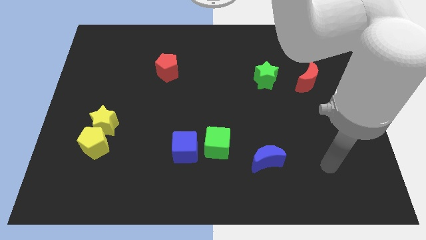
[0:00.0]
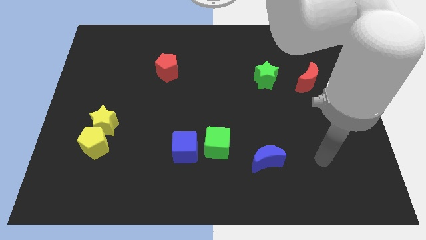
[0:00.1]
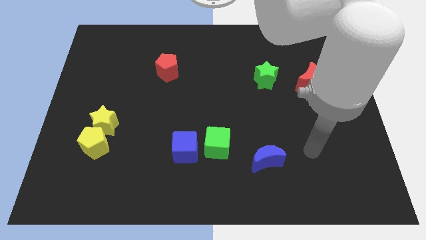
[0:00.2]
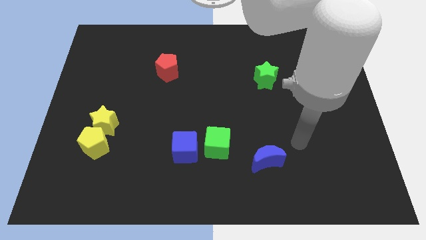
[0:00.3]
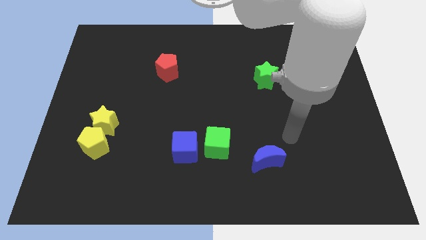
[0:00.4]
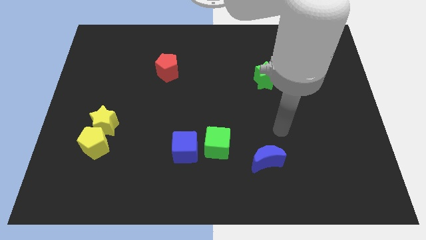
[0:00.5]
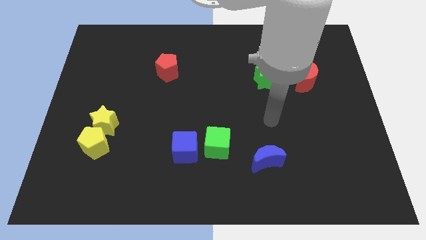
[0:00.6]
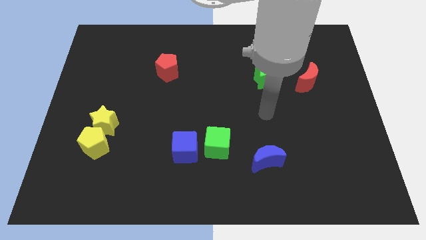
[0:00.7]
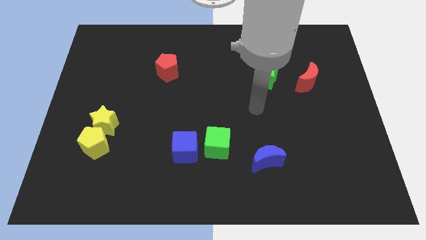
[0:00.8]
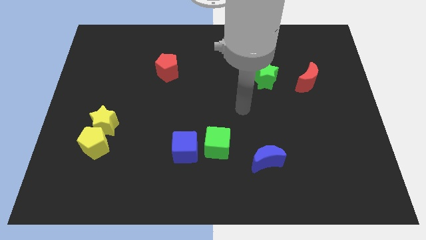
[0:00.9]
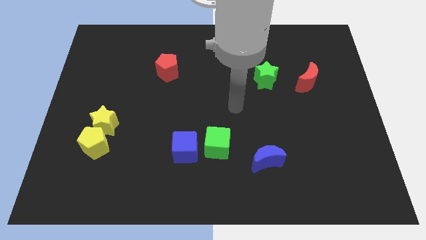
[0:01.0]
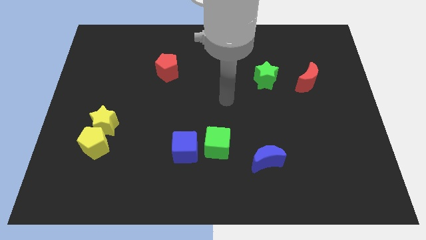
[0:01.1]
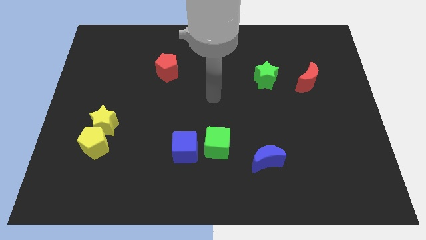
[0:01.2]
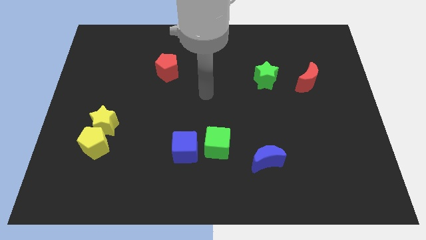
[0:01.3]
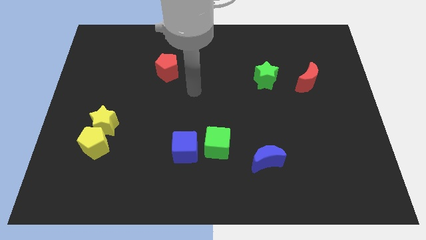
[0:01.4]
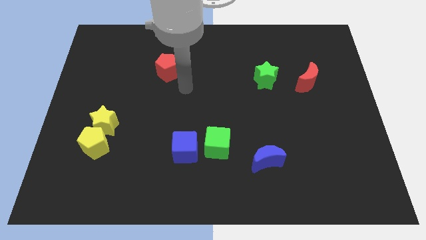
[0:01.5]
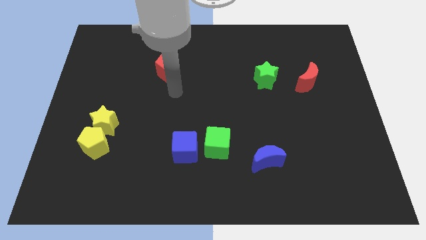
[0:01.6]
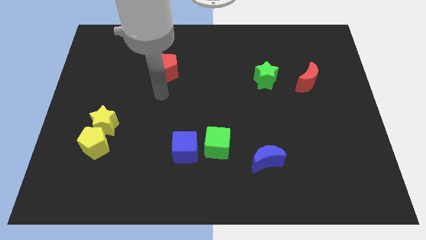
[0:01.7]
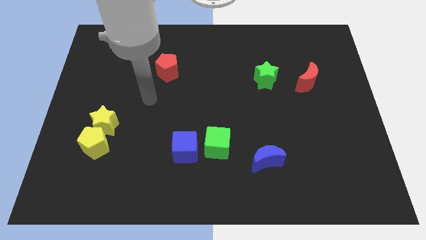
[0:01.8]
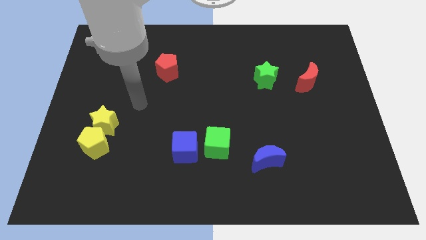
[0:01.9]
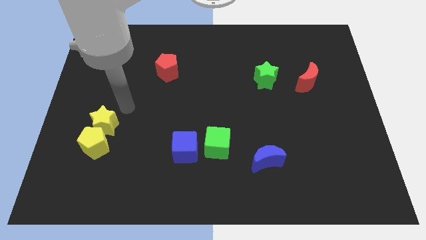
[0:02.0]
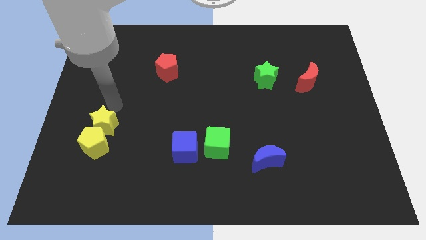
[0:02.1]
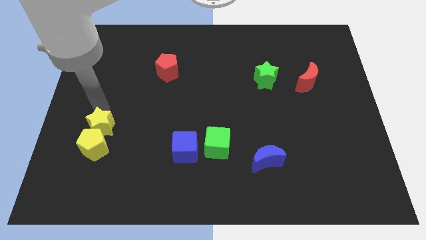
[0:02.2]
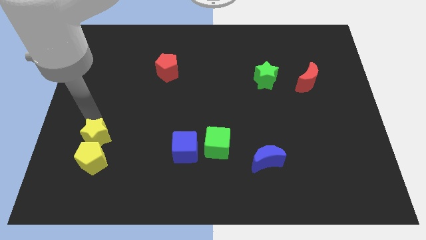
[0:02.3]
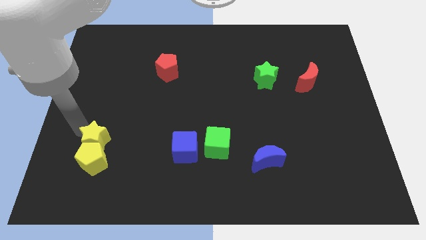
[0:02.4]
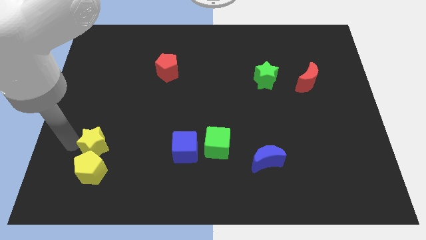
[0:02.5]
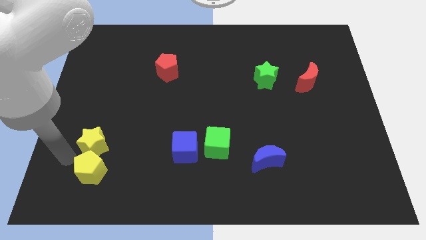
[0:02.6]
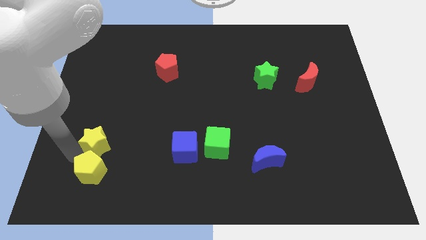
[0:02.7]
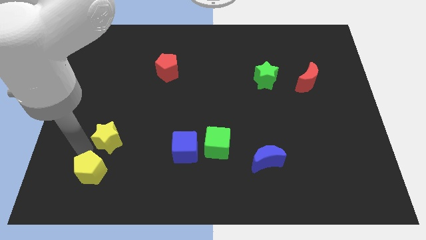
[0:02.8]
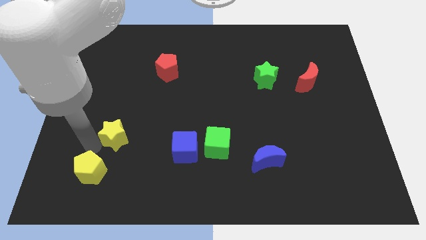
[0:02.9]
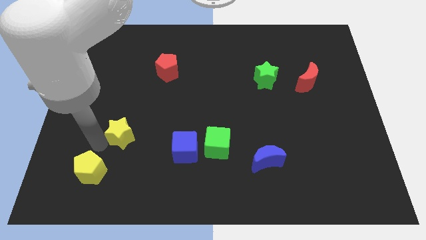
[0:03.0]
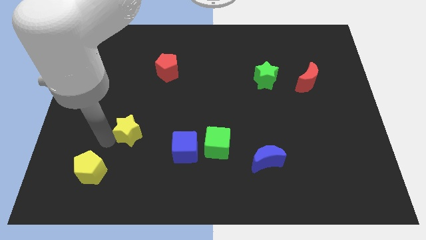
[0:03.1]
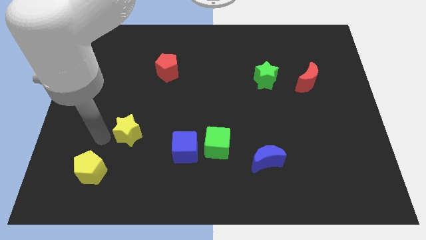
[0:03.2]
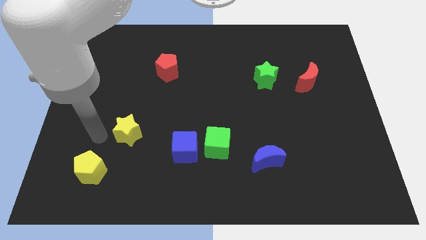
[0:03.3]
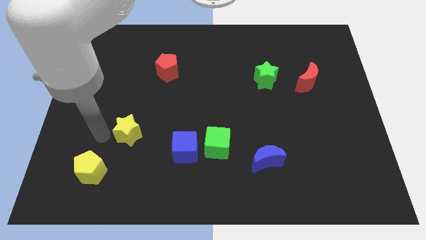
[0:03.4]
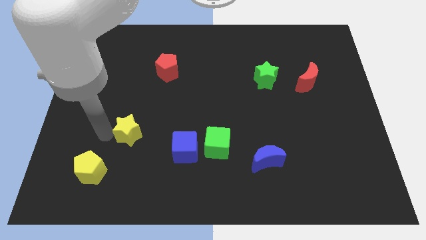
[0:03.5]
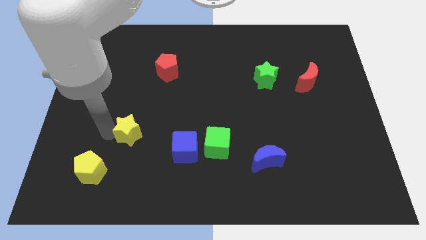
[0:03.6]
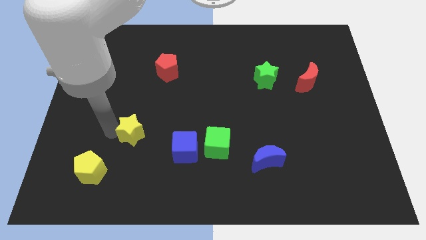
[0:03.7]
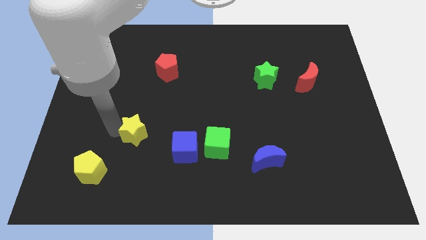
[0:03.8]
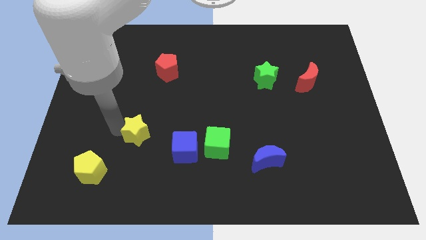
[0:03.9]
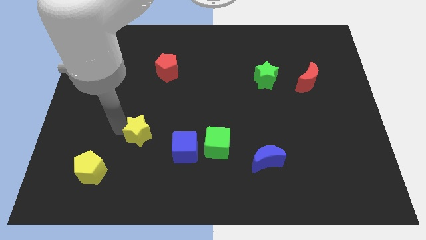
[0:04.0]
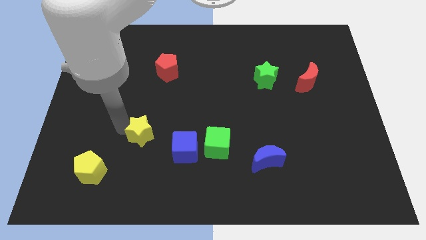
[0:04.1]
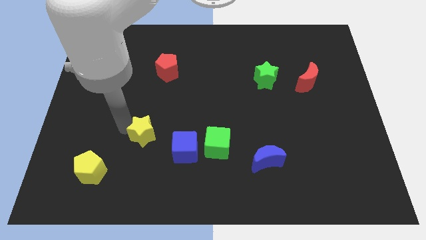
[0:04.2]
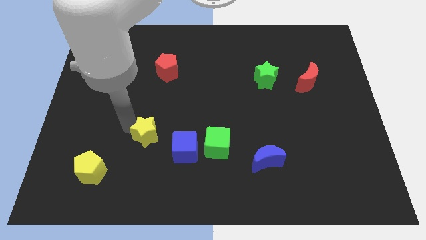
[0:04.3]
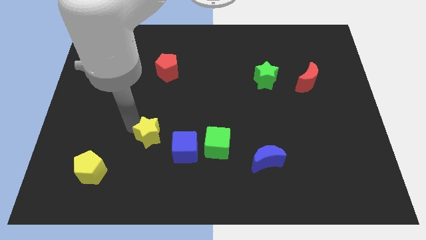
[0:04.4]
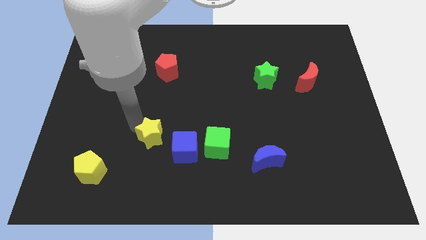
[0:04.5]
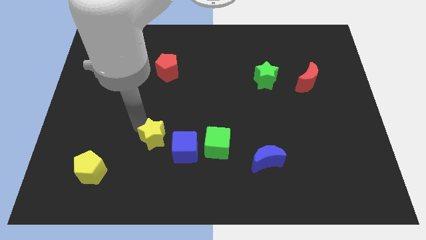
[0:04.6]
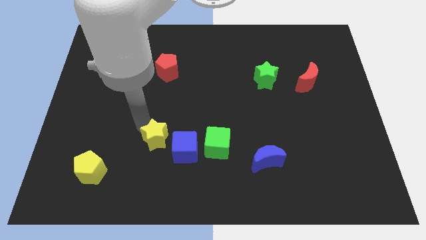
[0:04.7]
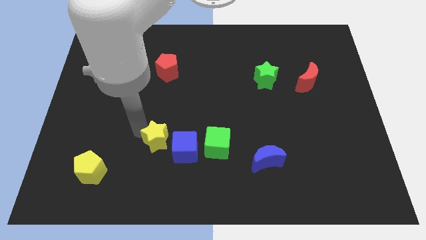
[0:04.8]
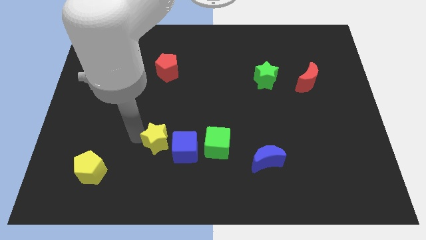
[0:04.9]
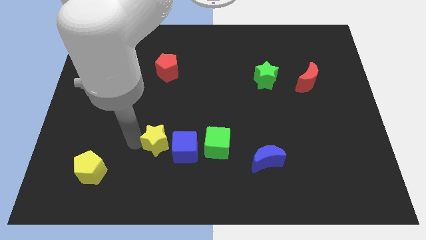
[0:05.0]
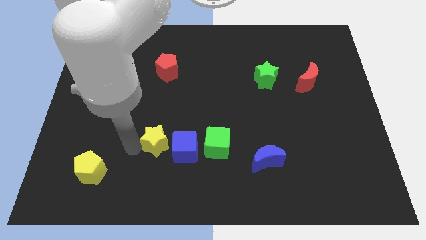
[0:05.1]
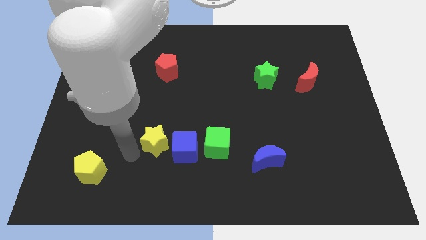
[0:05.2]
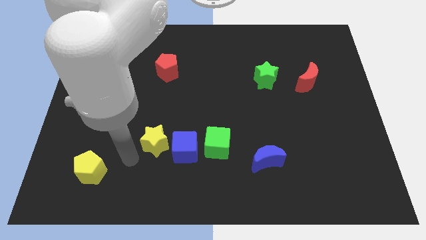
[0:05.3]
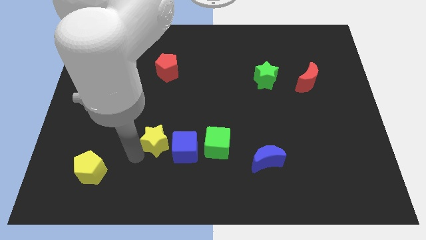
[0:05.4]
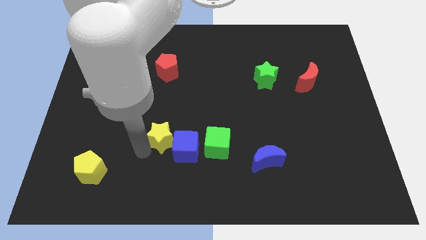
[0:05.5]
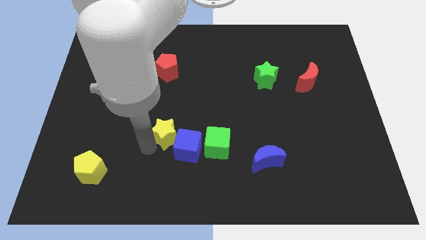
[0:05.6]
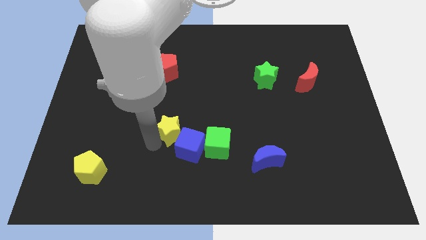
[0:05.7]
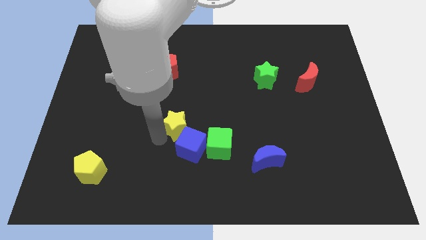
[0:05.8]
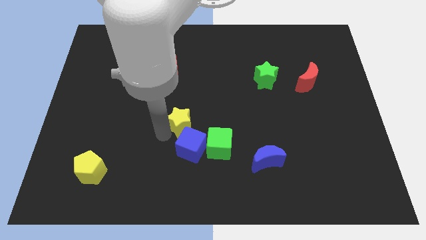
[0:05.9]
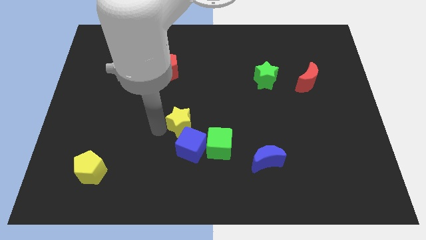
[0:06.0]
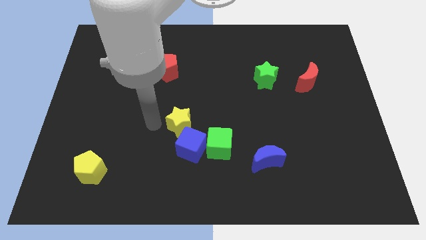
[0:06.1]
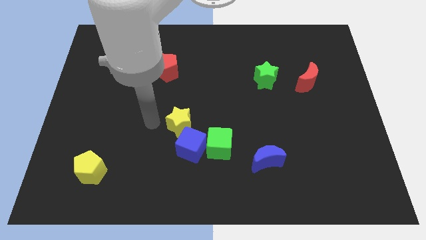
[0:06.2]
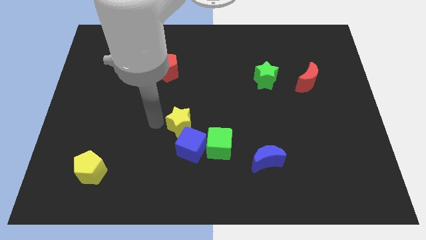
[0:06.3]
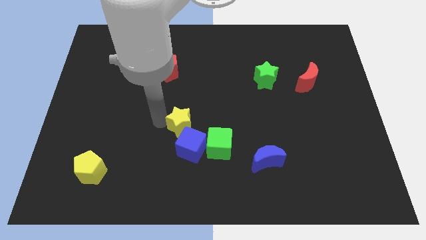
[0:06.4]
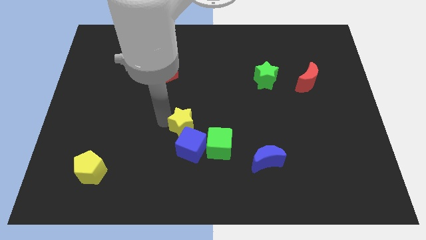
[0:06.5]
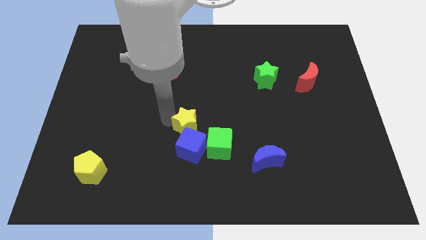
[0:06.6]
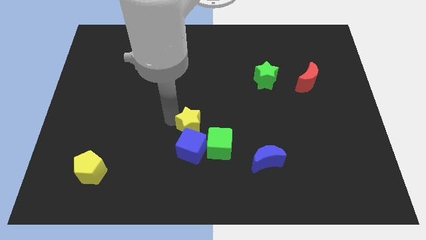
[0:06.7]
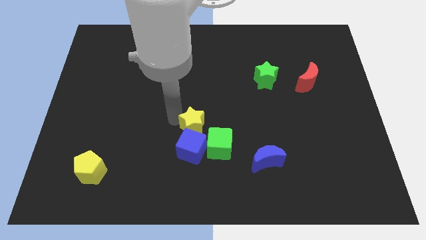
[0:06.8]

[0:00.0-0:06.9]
move the yellow star to the right

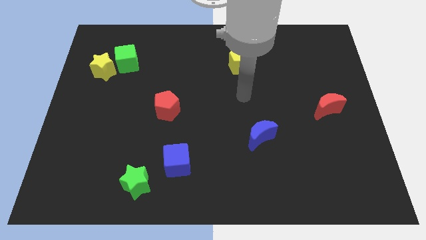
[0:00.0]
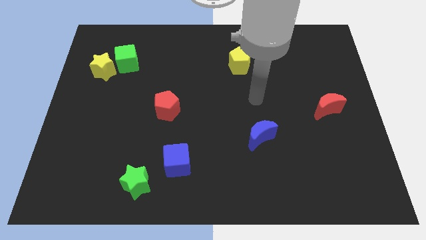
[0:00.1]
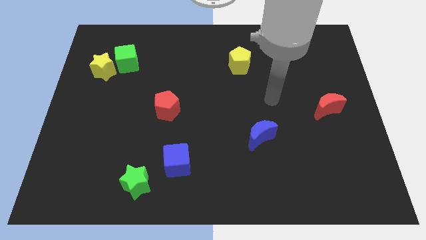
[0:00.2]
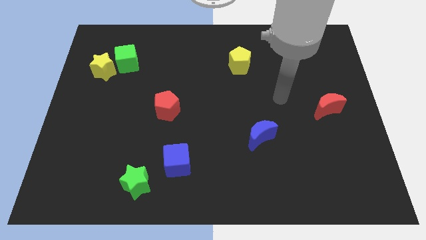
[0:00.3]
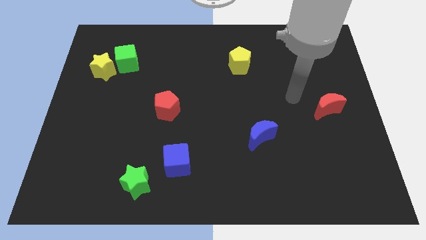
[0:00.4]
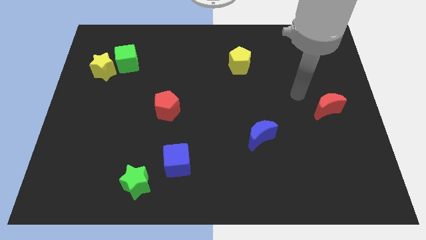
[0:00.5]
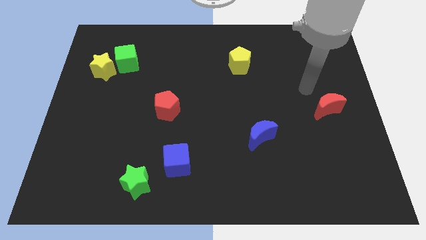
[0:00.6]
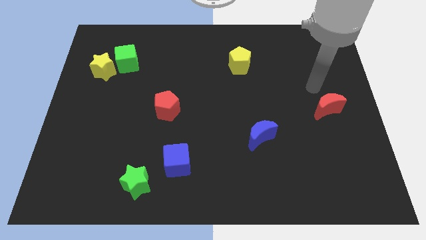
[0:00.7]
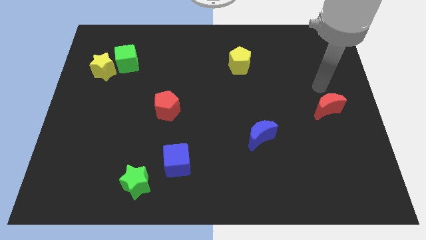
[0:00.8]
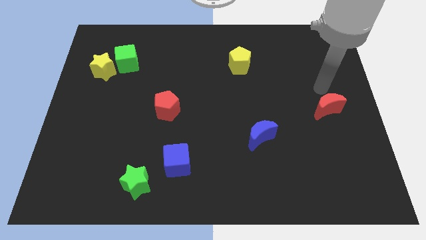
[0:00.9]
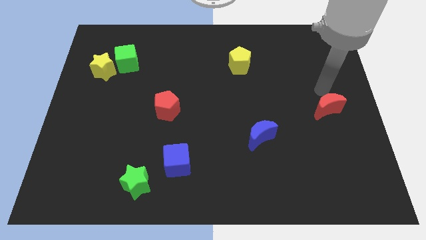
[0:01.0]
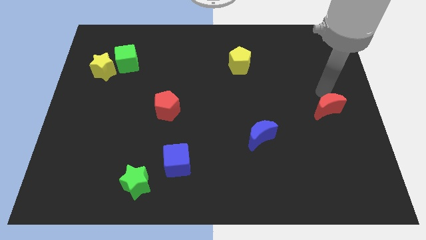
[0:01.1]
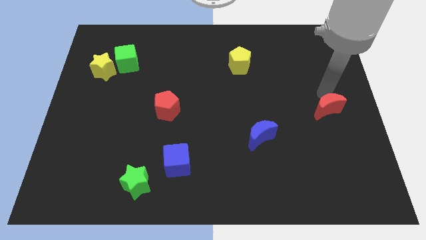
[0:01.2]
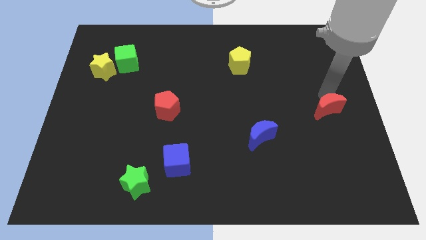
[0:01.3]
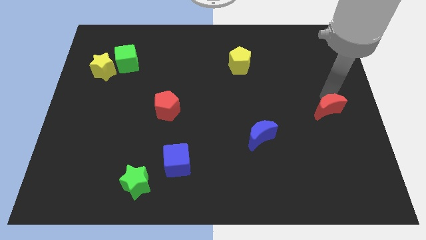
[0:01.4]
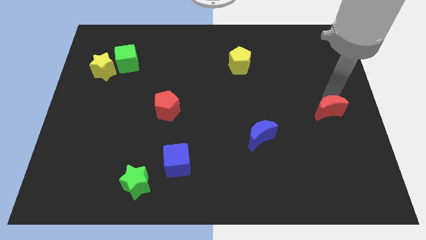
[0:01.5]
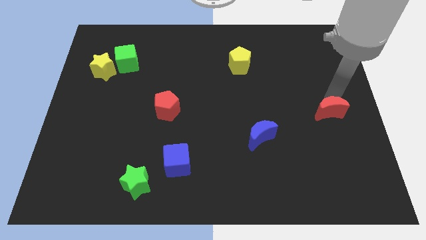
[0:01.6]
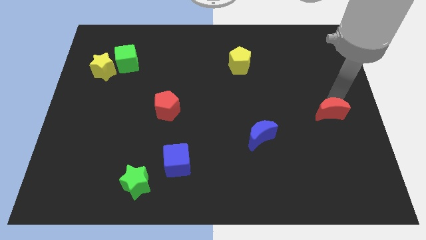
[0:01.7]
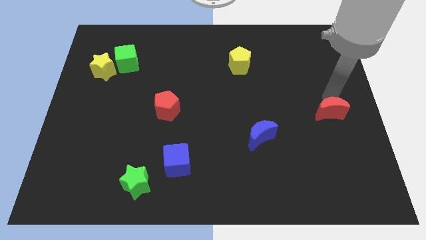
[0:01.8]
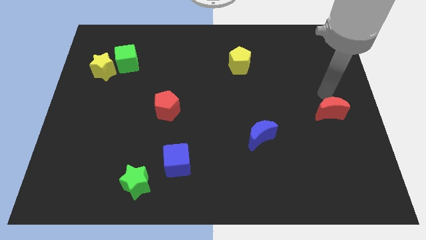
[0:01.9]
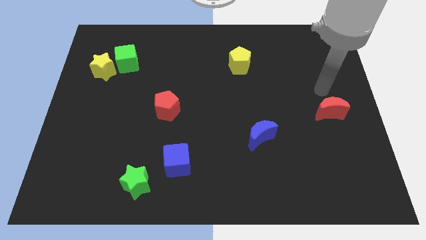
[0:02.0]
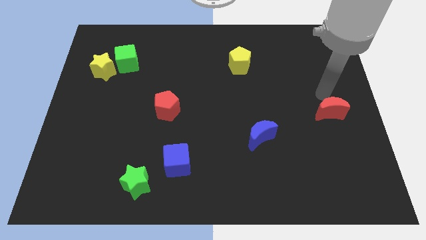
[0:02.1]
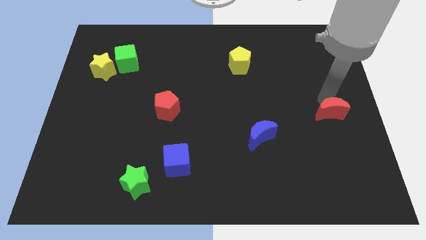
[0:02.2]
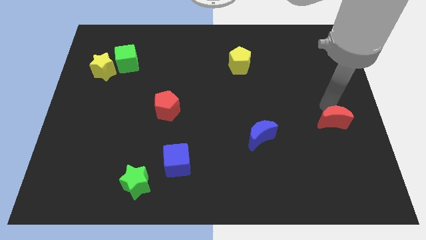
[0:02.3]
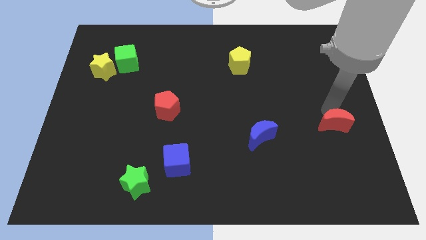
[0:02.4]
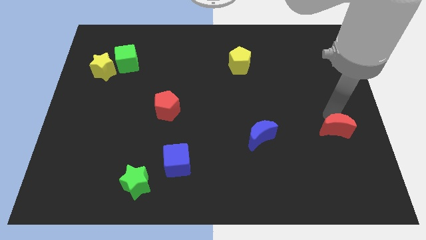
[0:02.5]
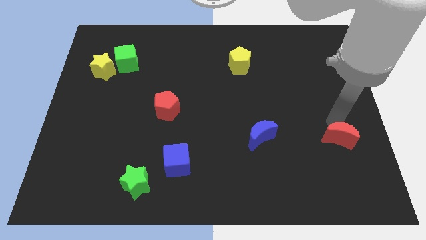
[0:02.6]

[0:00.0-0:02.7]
slide the red moon a little bit downwards
